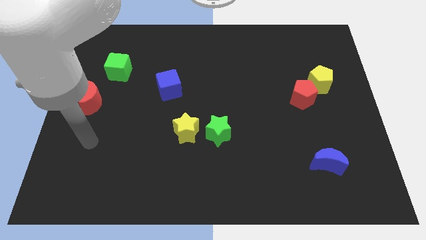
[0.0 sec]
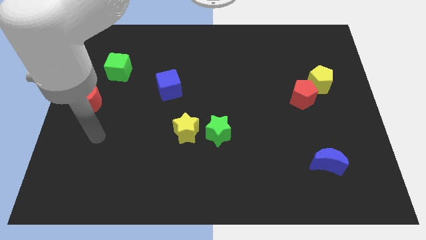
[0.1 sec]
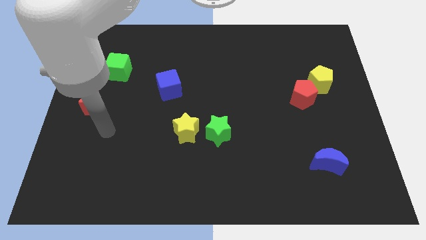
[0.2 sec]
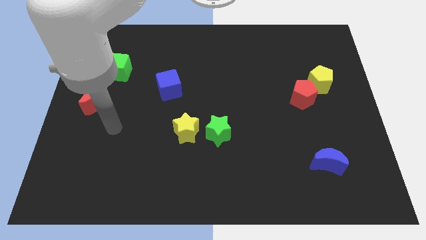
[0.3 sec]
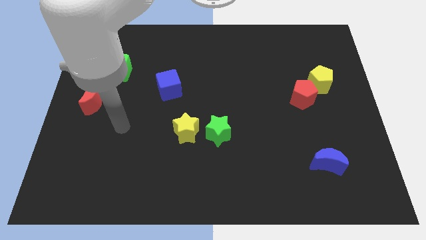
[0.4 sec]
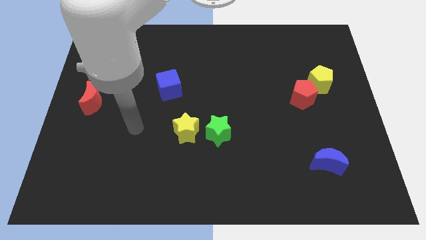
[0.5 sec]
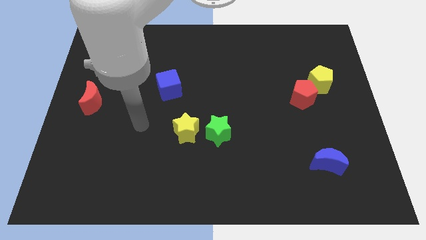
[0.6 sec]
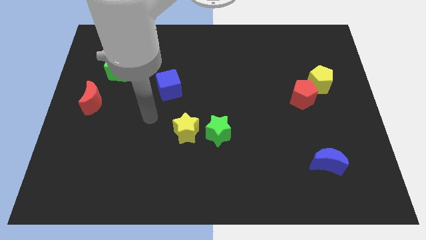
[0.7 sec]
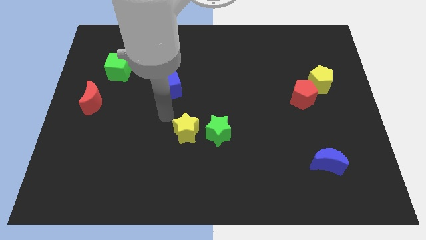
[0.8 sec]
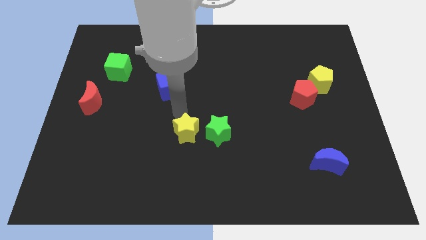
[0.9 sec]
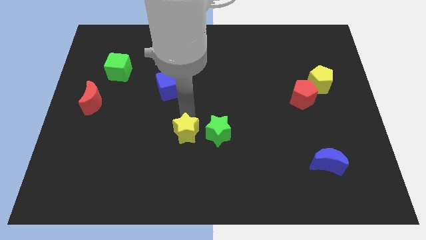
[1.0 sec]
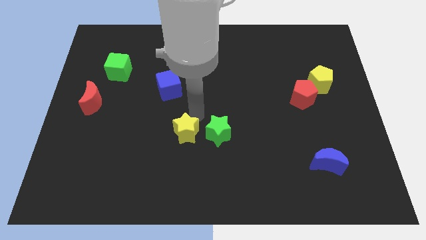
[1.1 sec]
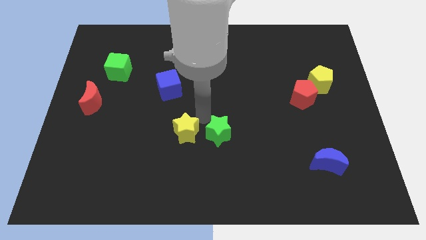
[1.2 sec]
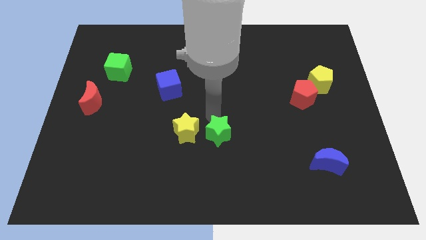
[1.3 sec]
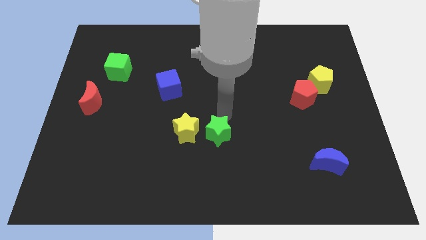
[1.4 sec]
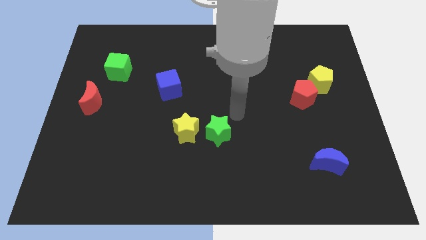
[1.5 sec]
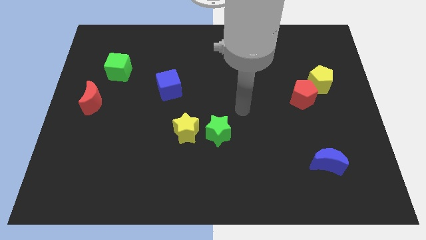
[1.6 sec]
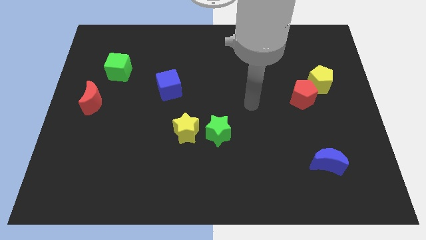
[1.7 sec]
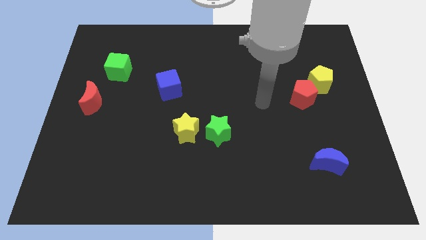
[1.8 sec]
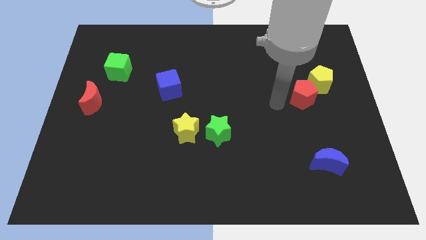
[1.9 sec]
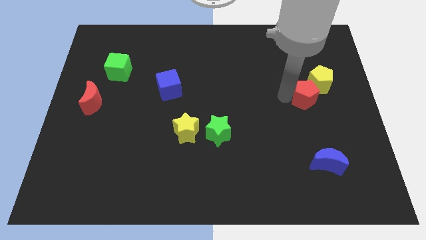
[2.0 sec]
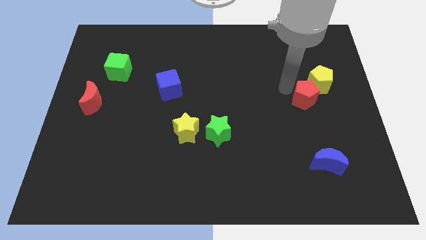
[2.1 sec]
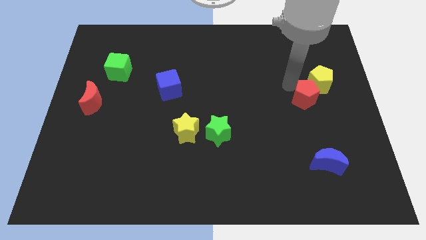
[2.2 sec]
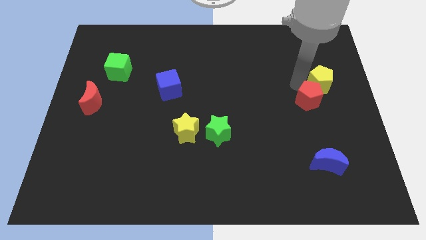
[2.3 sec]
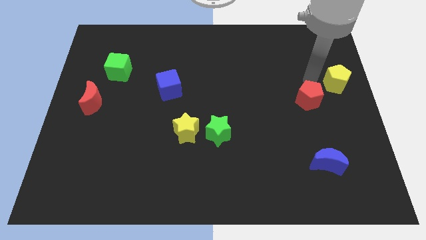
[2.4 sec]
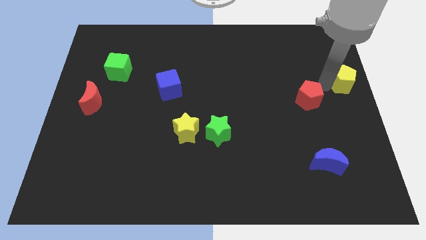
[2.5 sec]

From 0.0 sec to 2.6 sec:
pull the red pentagon apart from the yellow pentagon

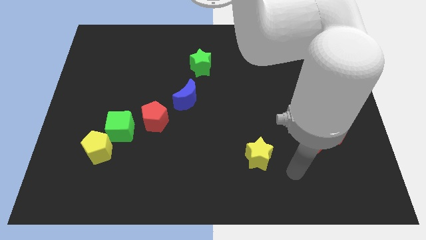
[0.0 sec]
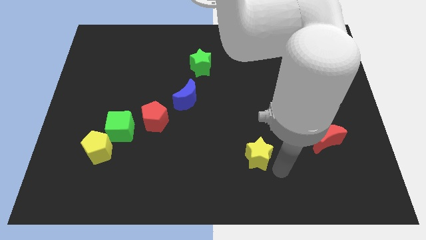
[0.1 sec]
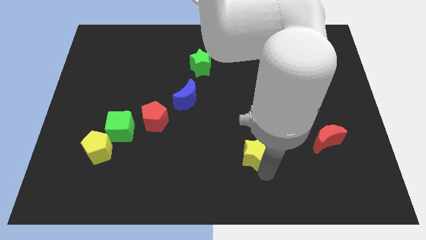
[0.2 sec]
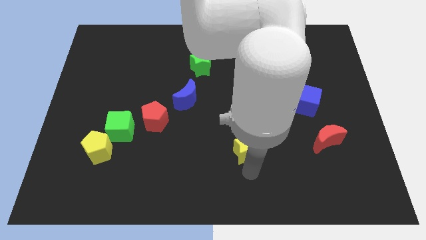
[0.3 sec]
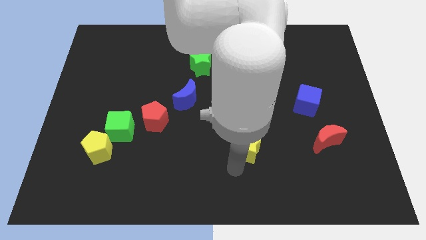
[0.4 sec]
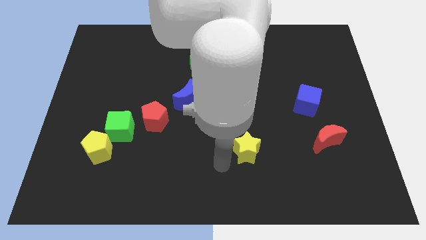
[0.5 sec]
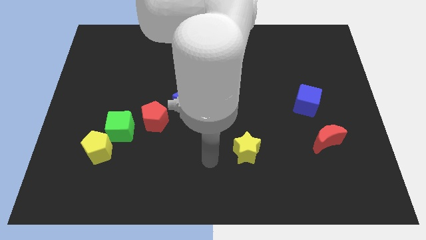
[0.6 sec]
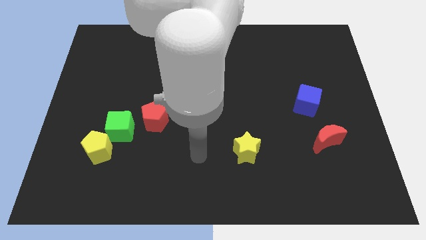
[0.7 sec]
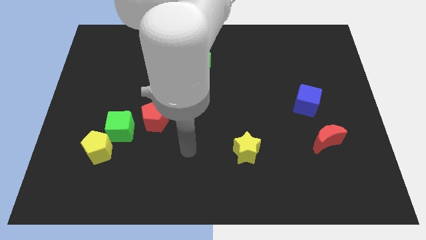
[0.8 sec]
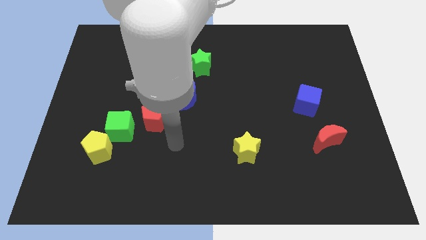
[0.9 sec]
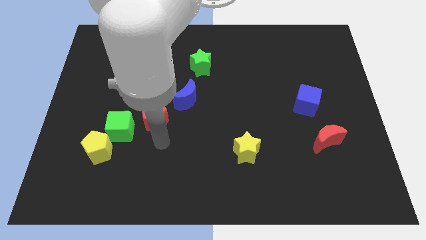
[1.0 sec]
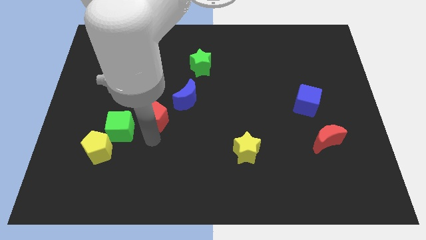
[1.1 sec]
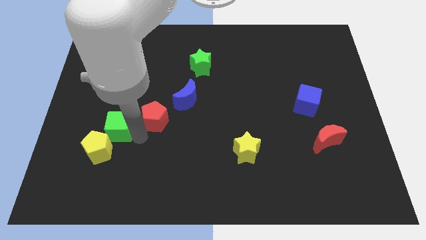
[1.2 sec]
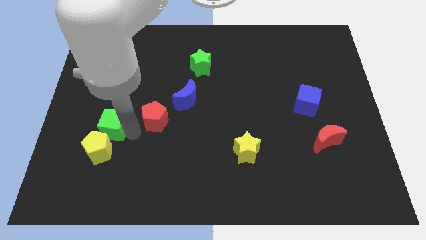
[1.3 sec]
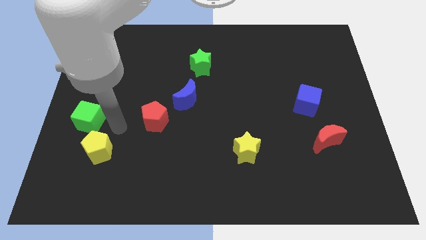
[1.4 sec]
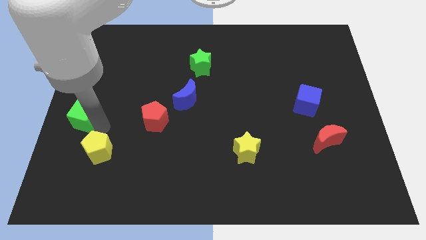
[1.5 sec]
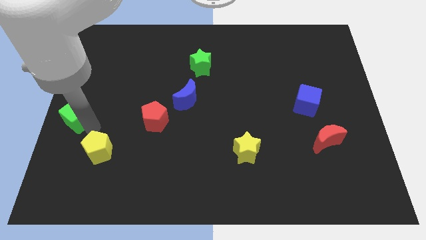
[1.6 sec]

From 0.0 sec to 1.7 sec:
pull the yellow pentagon apart from the green cube

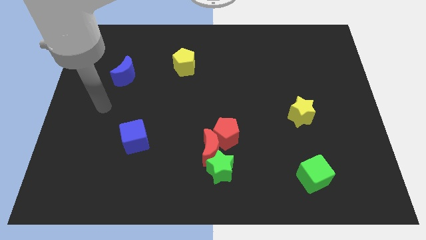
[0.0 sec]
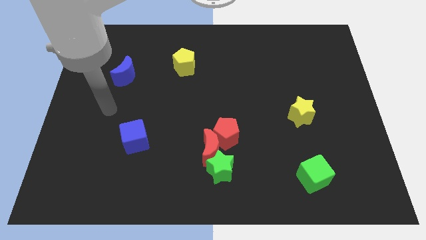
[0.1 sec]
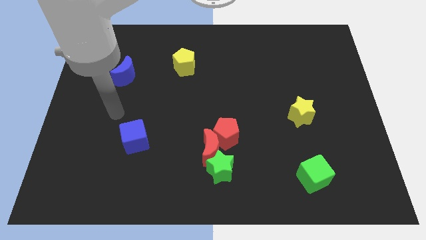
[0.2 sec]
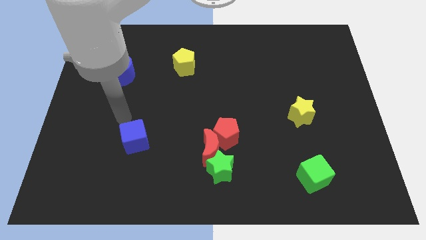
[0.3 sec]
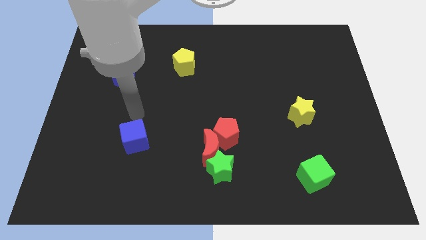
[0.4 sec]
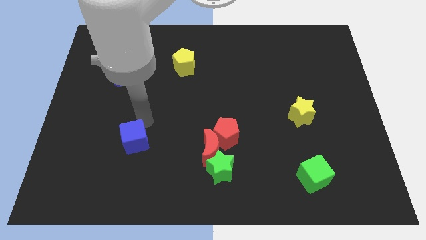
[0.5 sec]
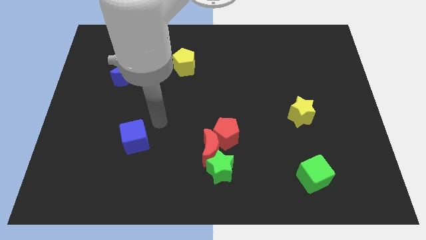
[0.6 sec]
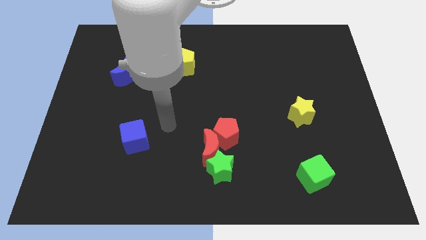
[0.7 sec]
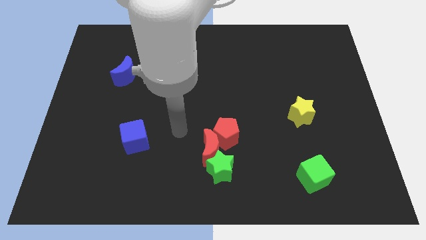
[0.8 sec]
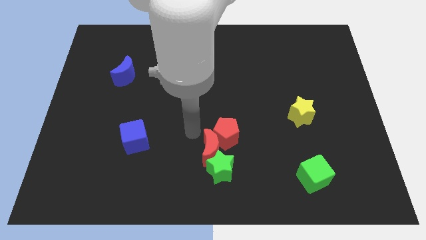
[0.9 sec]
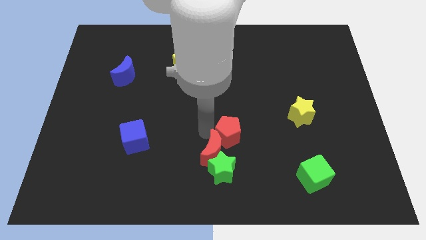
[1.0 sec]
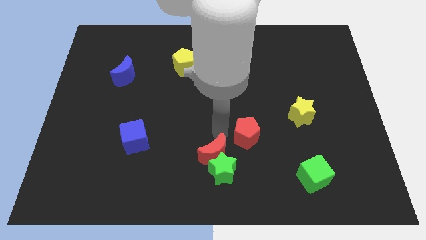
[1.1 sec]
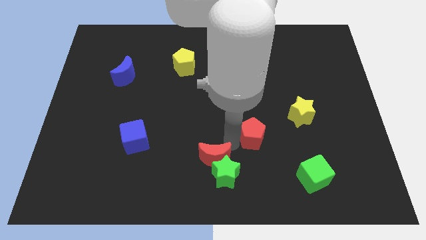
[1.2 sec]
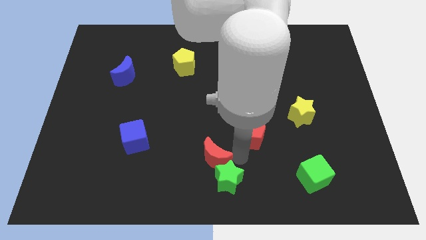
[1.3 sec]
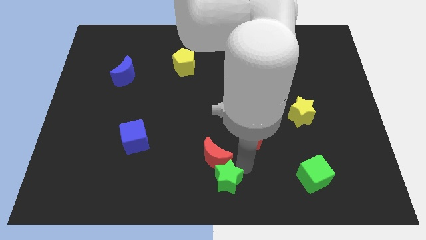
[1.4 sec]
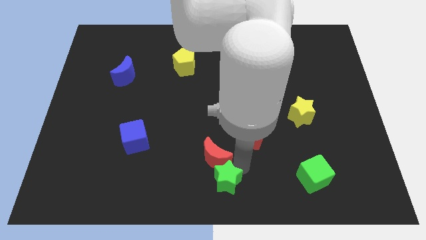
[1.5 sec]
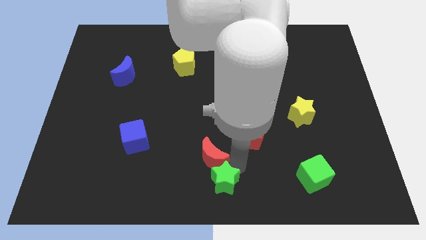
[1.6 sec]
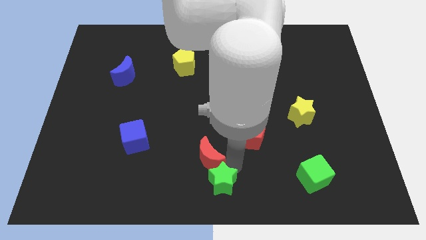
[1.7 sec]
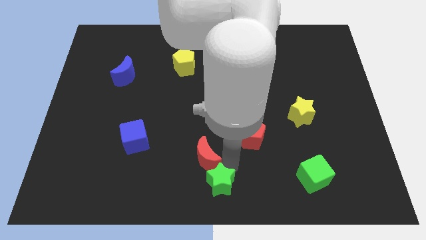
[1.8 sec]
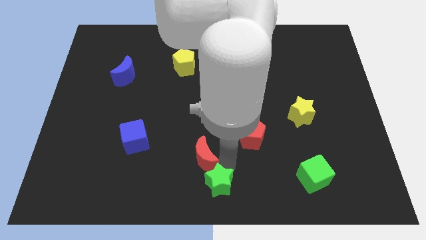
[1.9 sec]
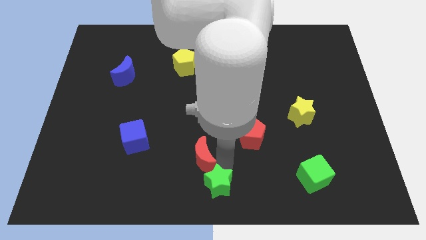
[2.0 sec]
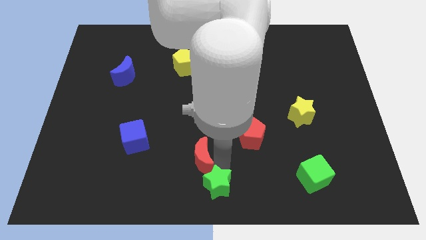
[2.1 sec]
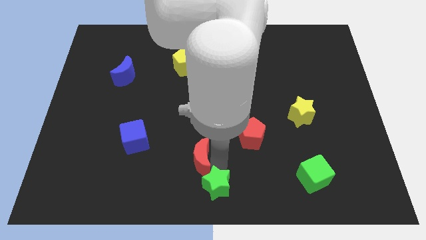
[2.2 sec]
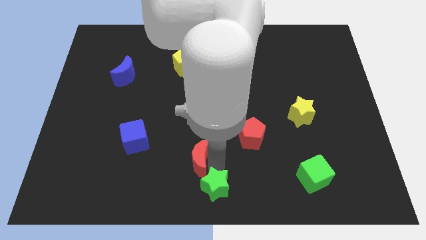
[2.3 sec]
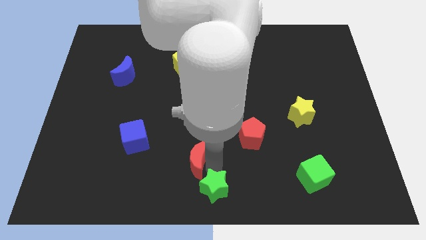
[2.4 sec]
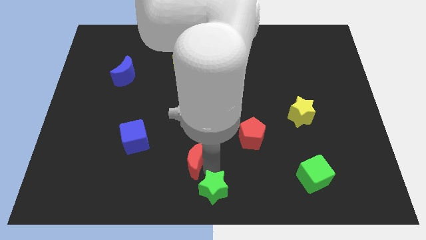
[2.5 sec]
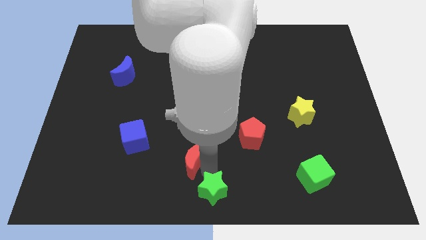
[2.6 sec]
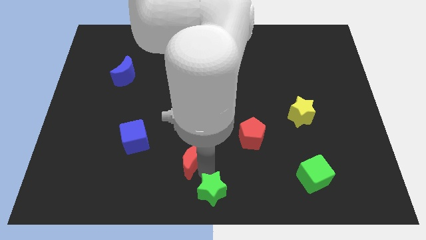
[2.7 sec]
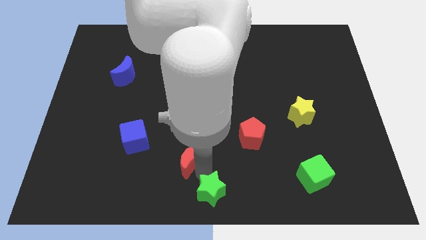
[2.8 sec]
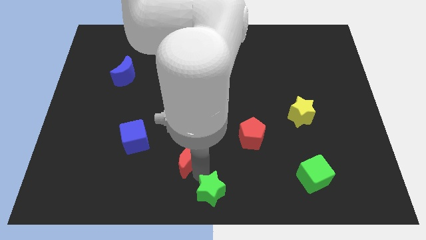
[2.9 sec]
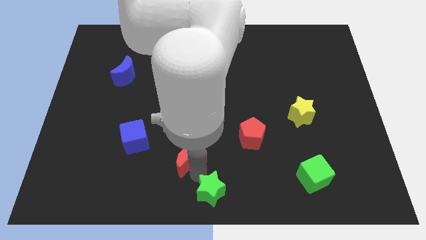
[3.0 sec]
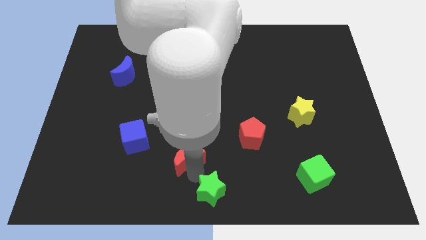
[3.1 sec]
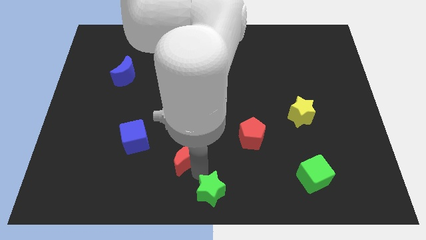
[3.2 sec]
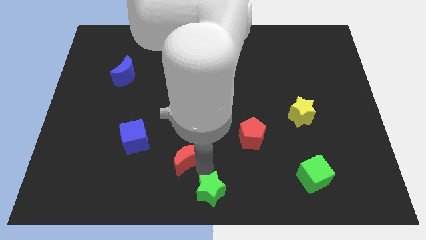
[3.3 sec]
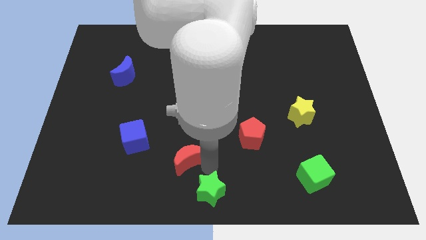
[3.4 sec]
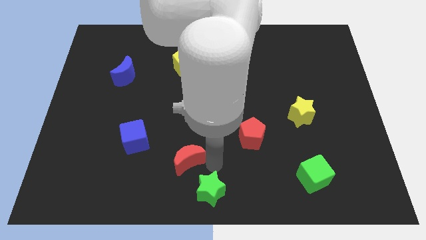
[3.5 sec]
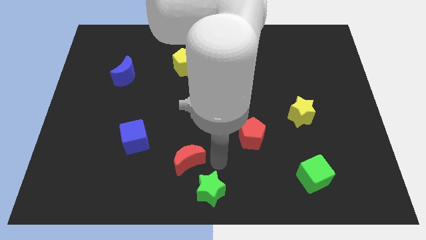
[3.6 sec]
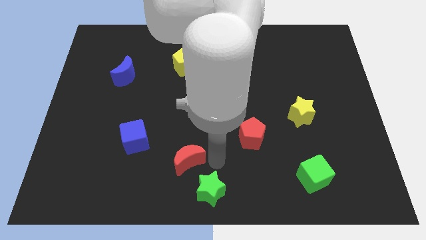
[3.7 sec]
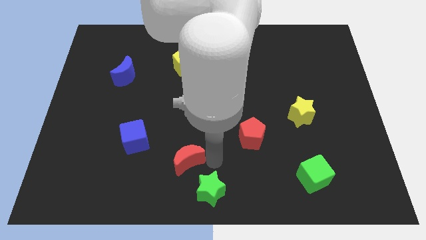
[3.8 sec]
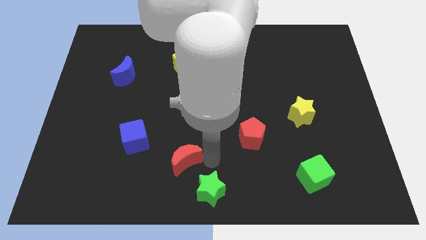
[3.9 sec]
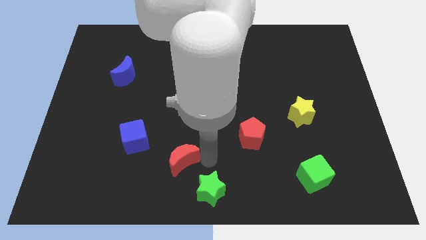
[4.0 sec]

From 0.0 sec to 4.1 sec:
separate the red moon from the green star and red pentagon

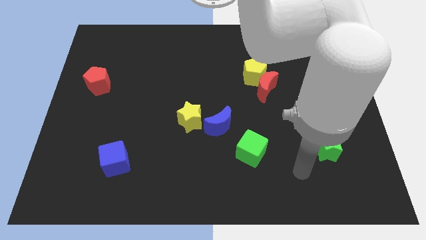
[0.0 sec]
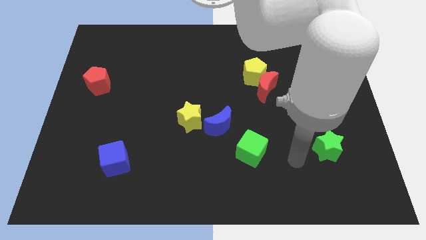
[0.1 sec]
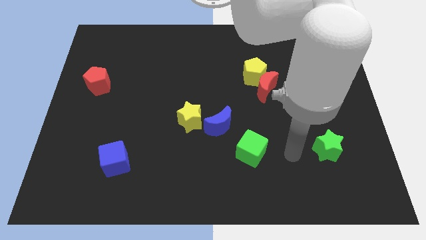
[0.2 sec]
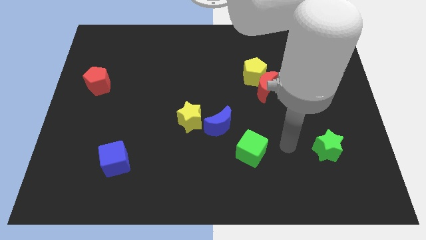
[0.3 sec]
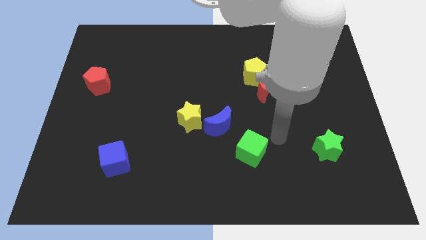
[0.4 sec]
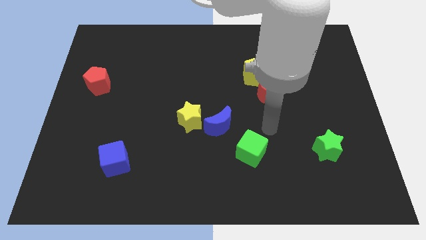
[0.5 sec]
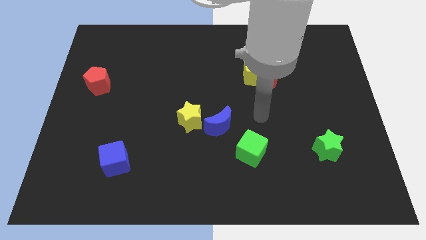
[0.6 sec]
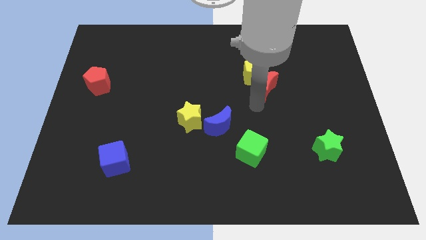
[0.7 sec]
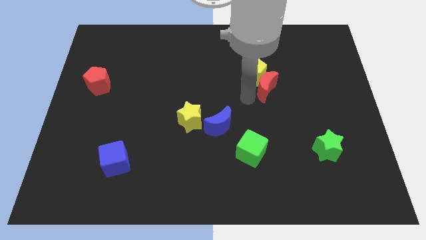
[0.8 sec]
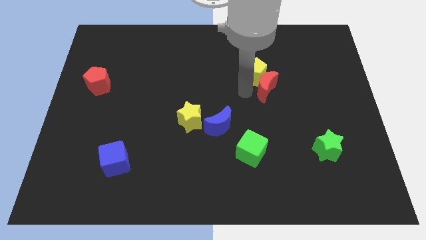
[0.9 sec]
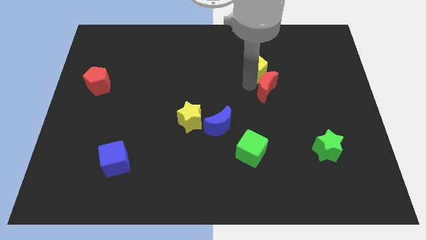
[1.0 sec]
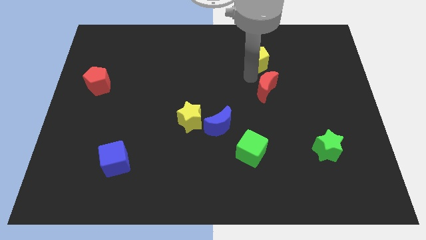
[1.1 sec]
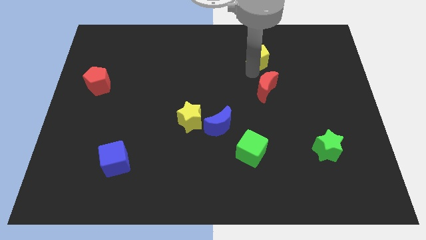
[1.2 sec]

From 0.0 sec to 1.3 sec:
separate the red moon from the yellow pentagon
